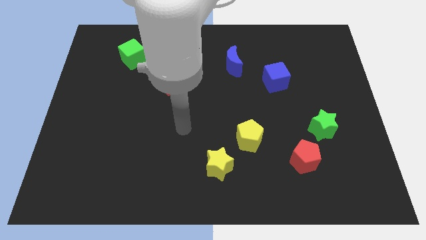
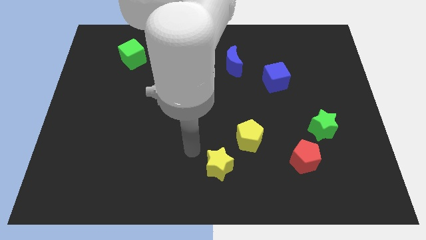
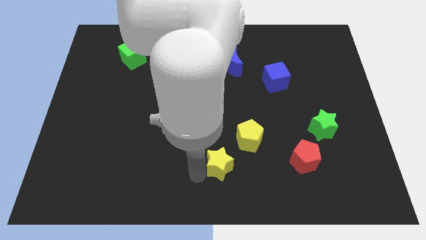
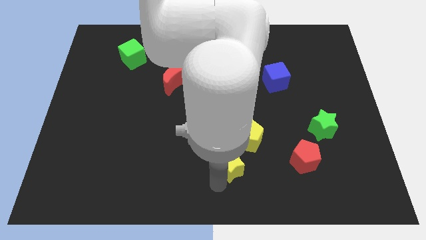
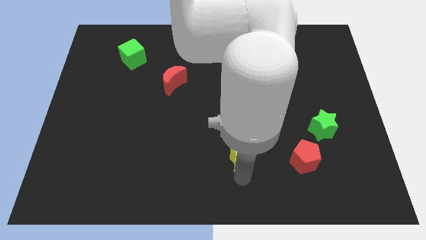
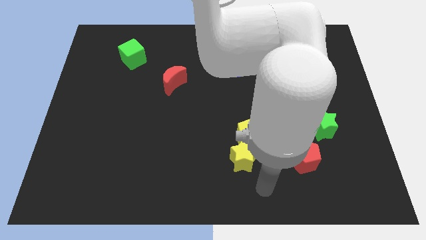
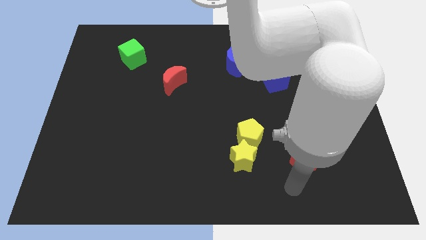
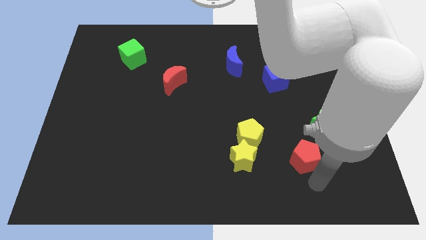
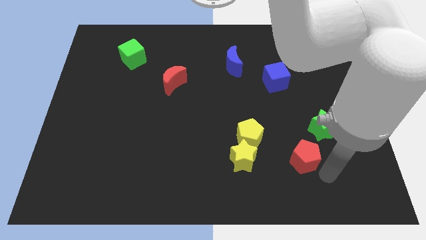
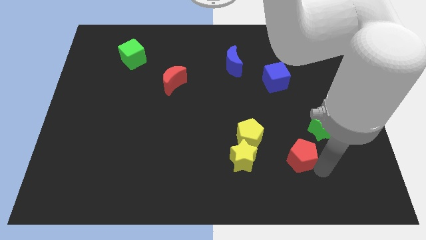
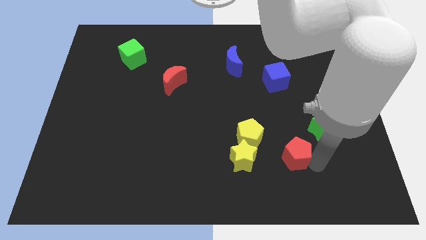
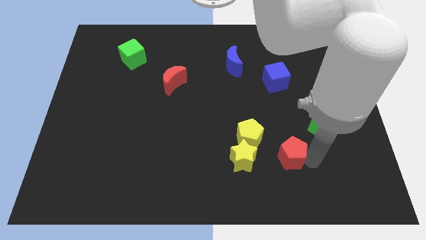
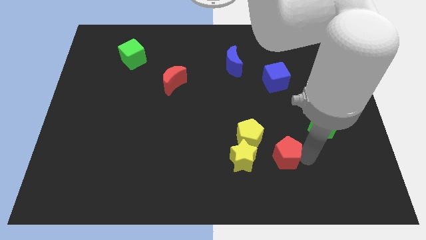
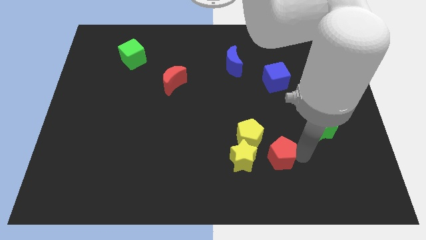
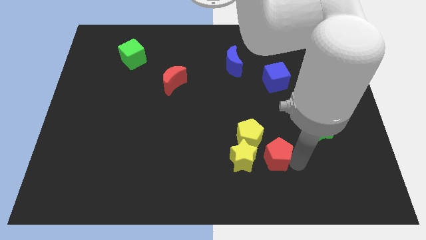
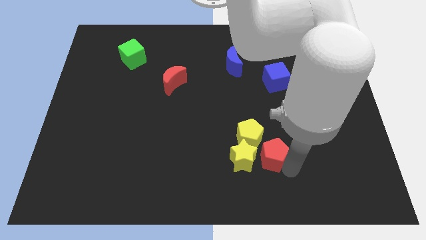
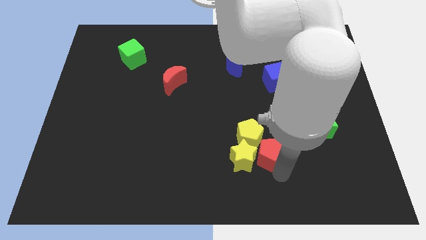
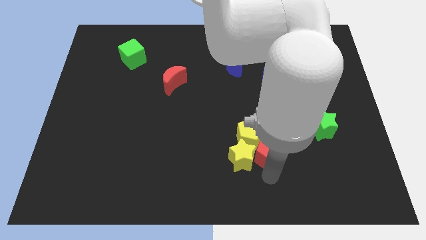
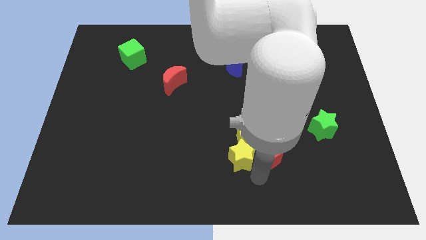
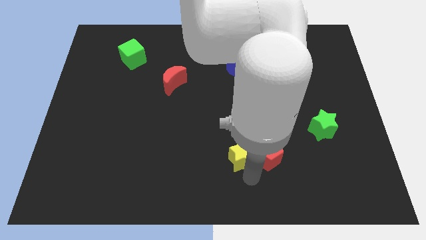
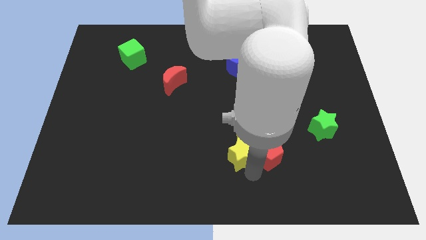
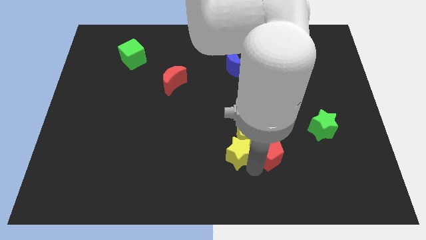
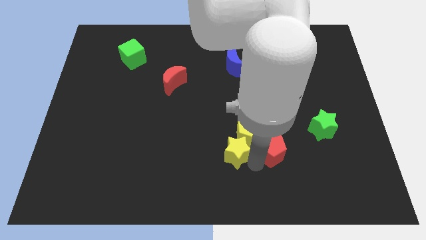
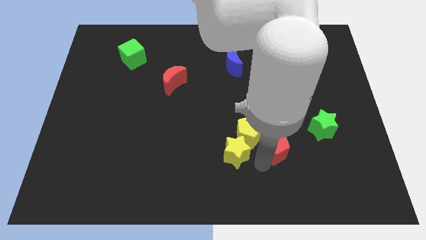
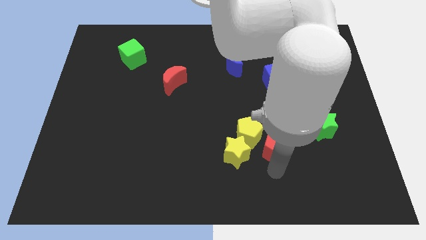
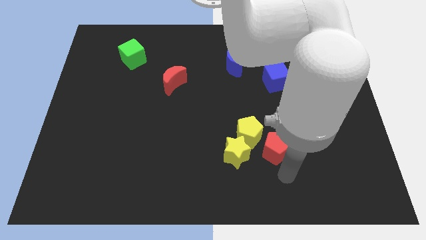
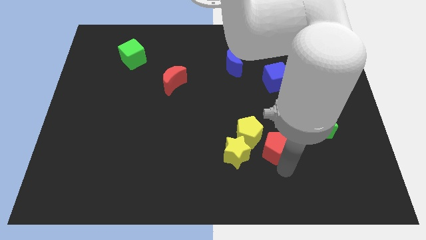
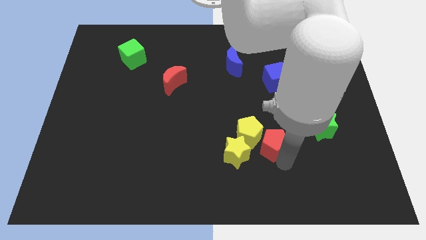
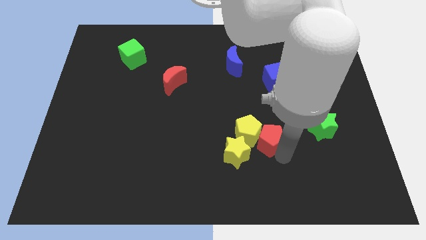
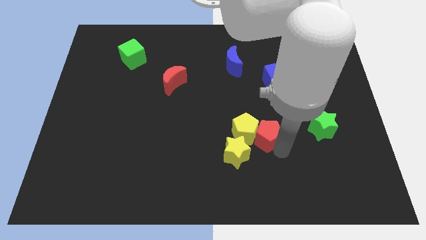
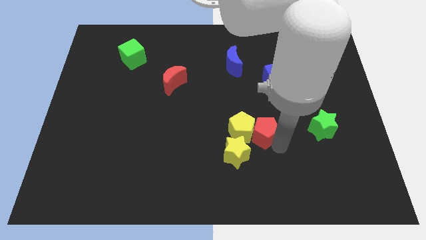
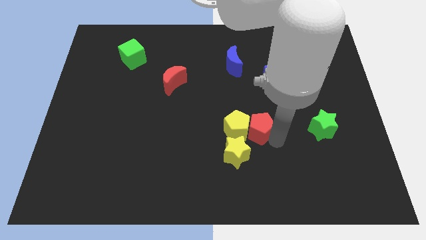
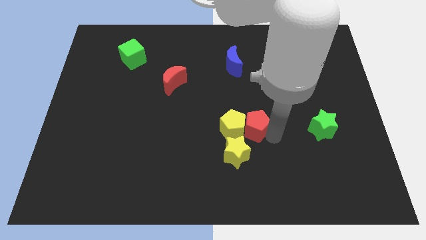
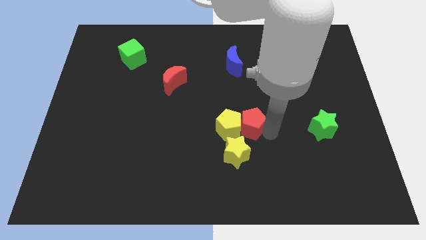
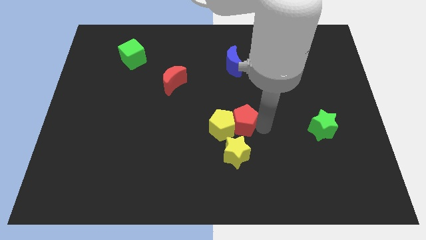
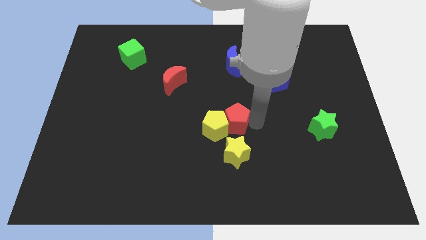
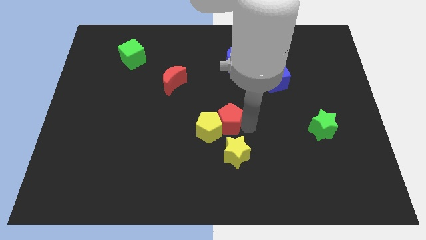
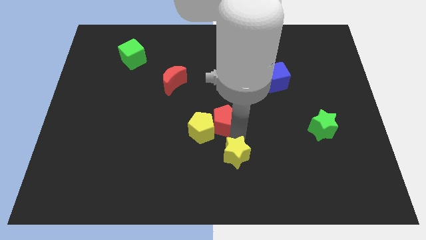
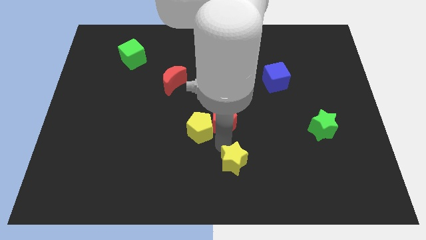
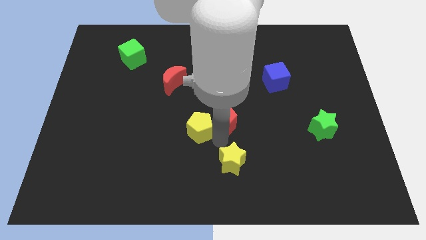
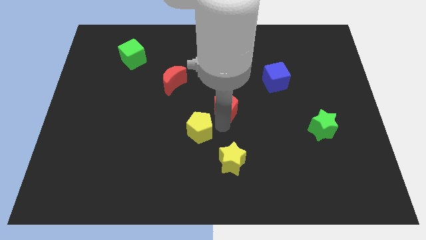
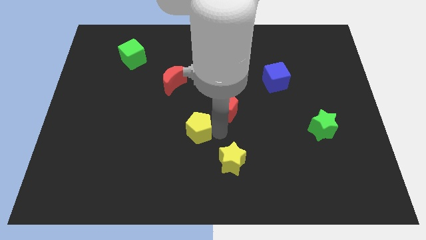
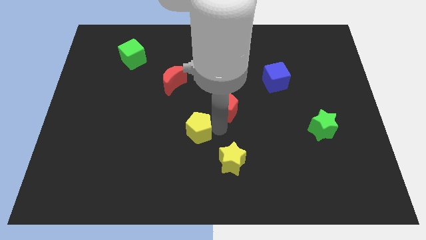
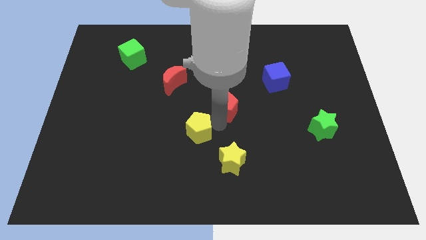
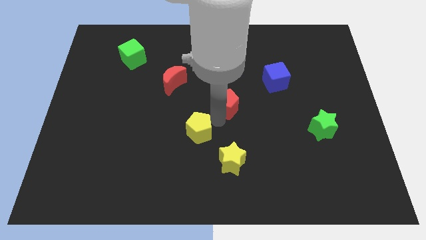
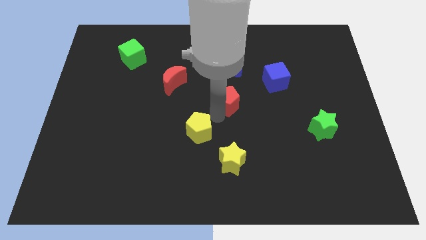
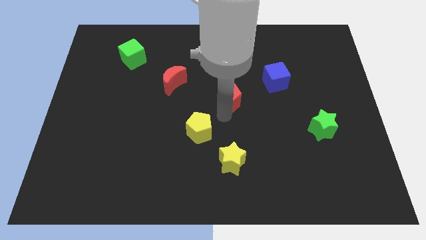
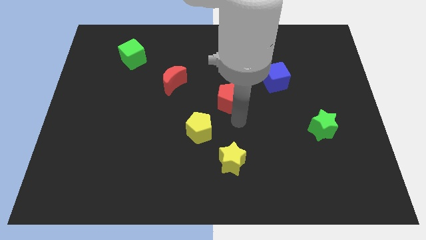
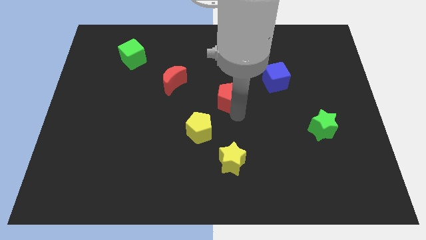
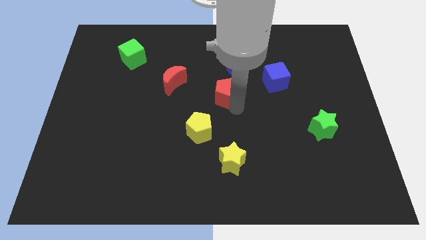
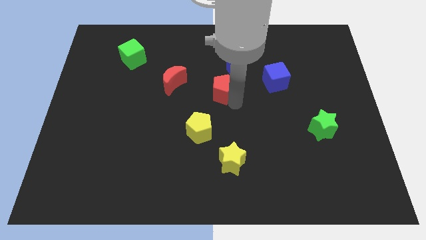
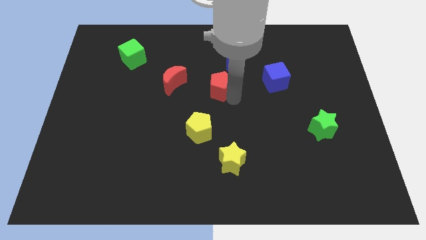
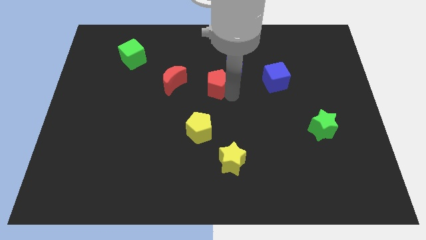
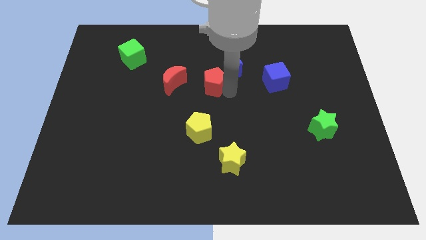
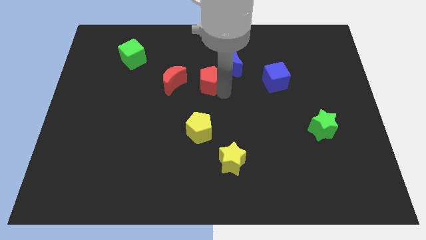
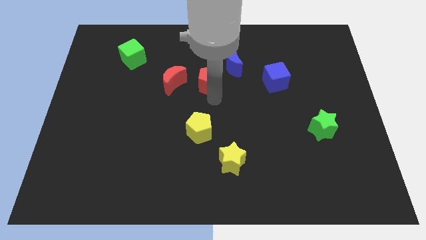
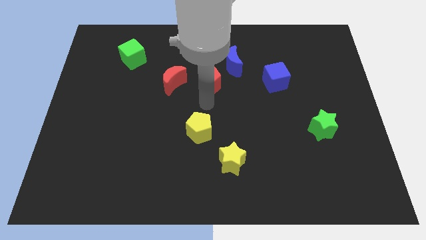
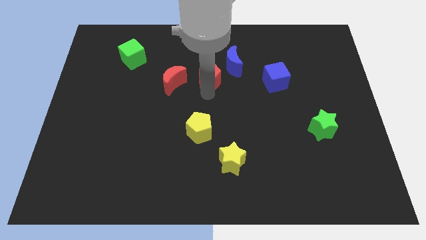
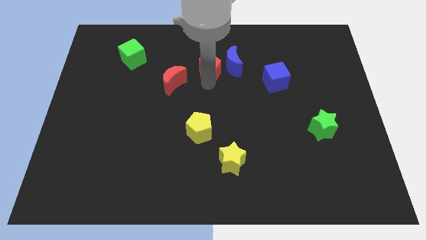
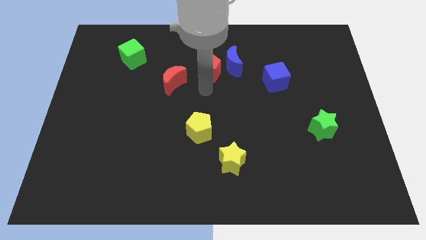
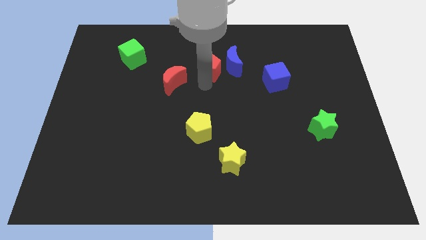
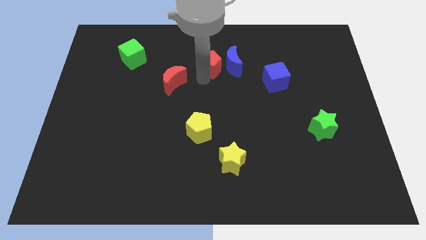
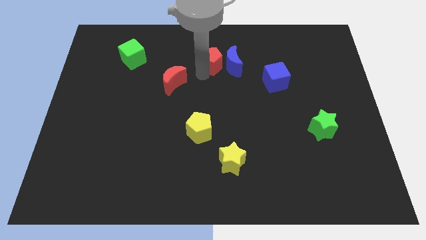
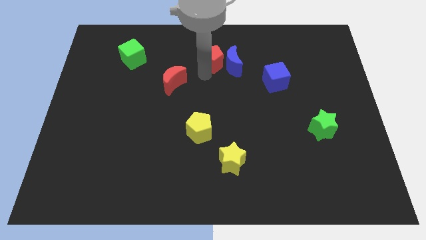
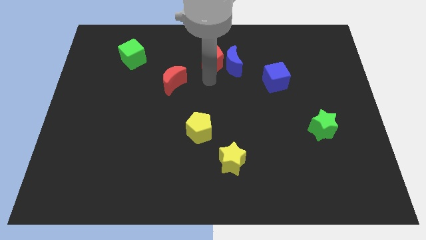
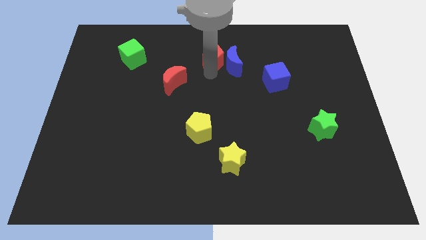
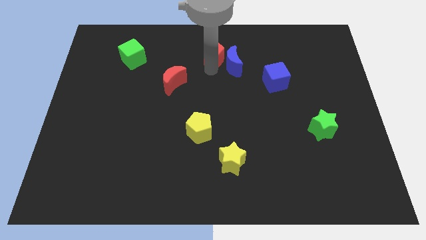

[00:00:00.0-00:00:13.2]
move the red pentagon to the top

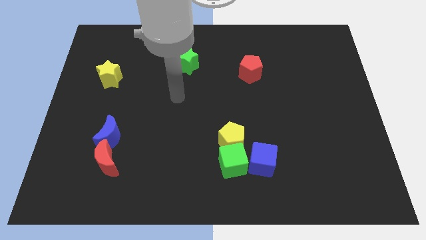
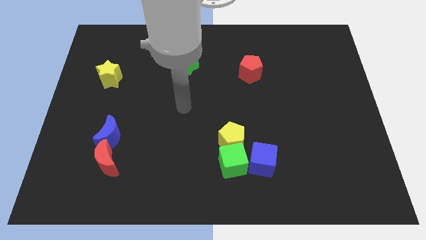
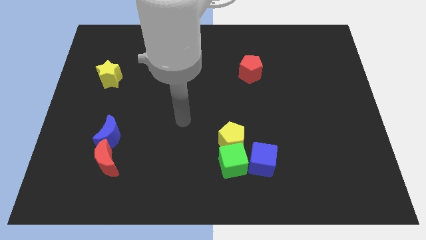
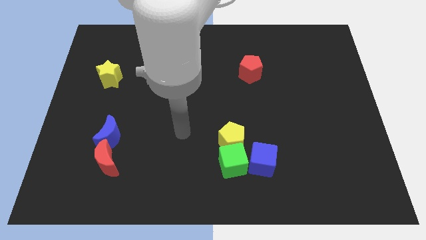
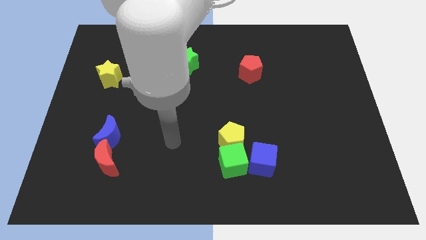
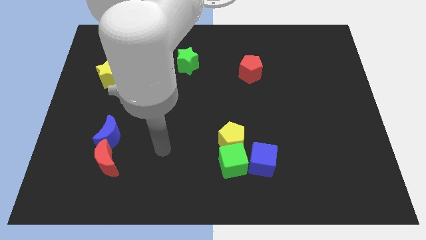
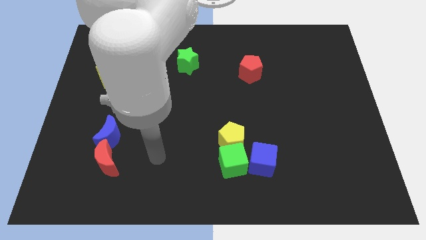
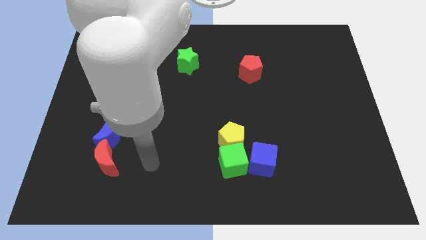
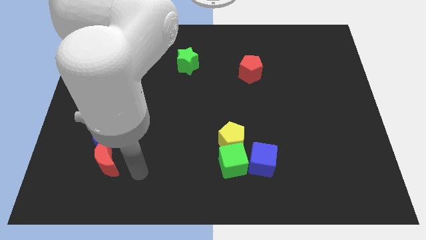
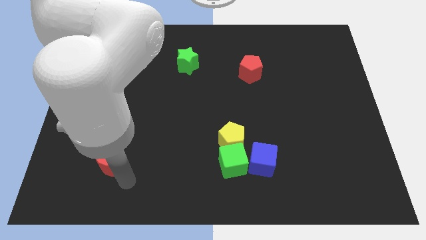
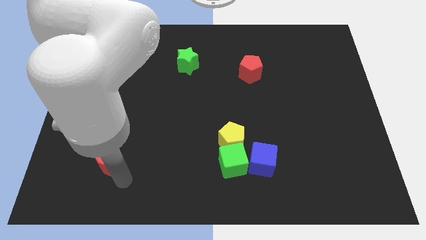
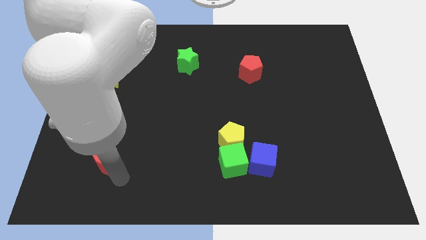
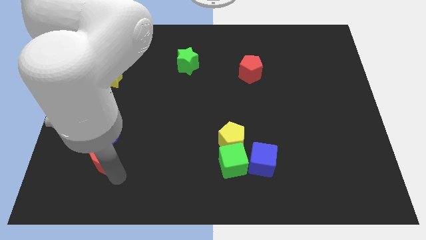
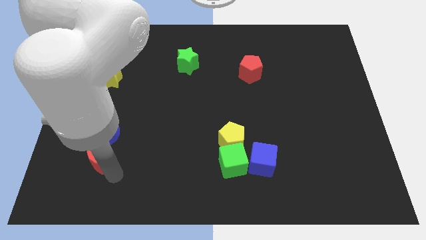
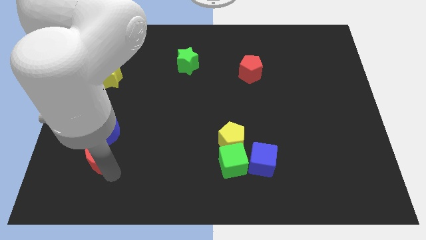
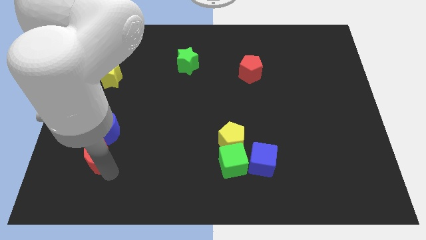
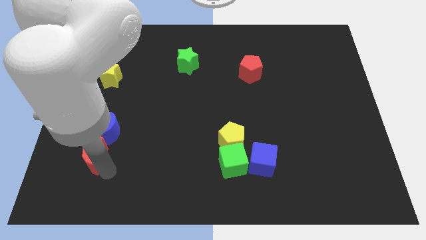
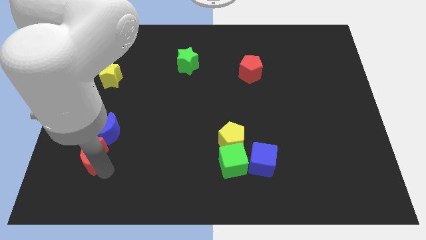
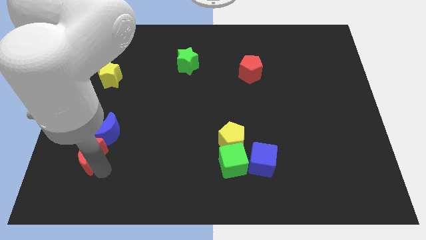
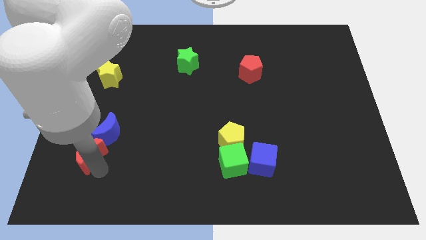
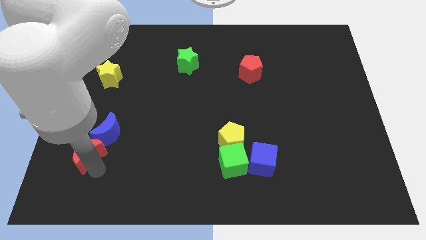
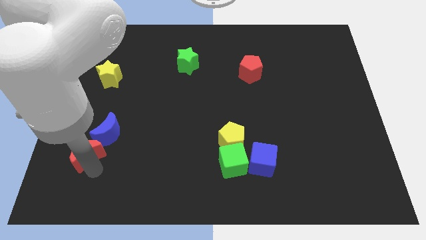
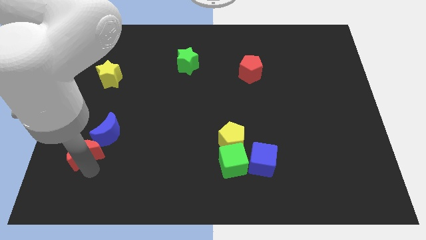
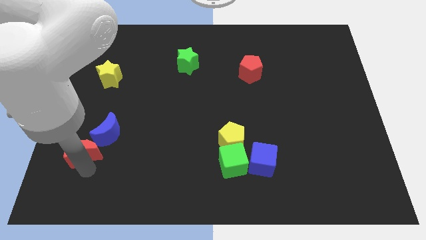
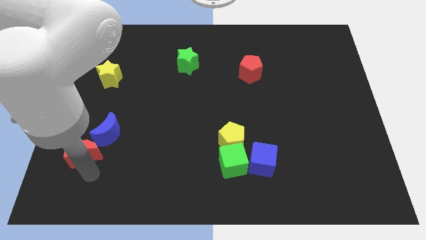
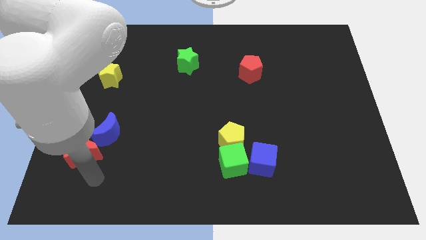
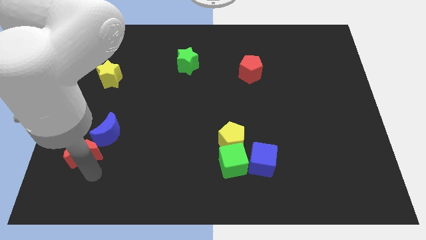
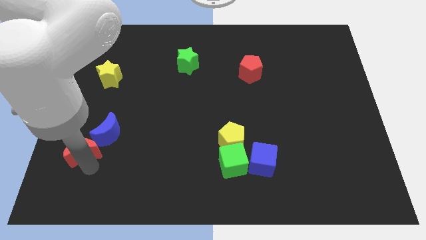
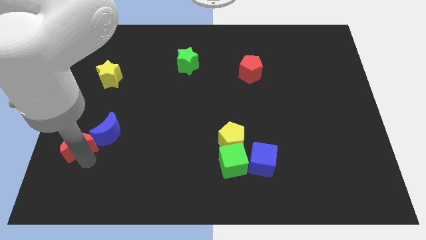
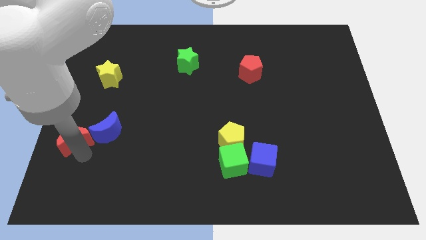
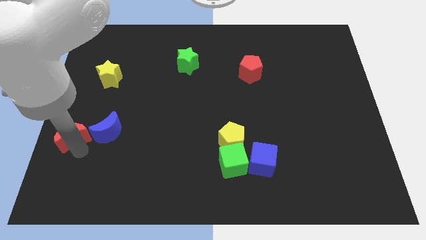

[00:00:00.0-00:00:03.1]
slide the red moon to the left side
